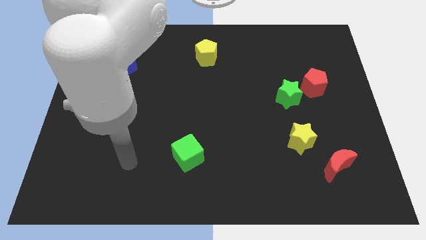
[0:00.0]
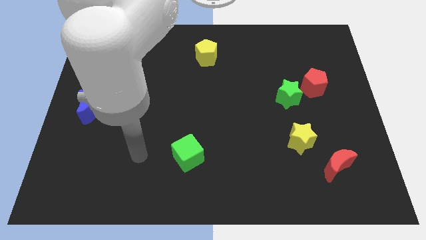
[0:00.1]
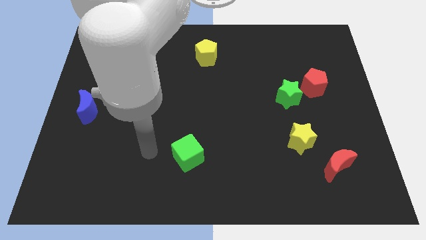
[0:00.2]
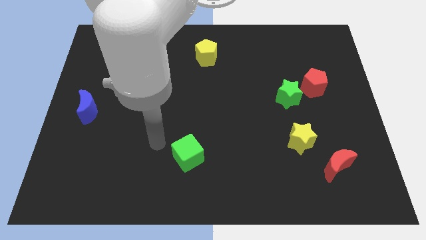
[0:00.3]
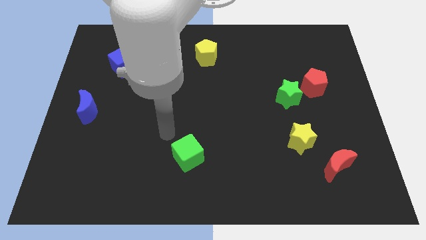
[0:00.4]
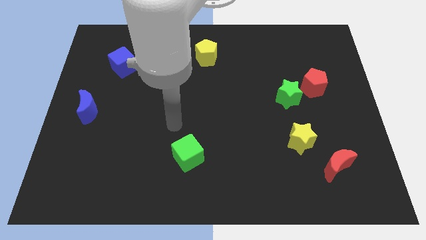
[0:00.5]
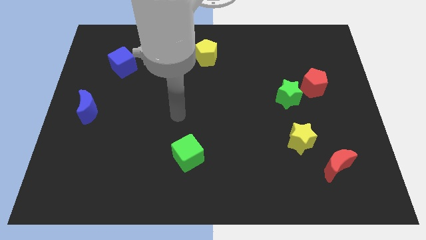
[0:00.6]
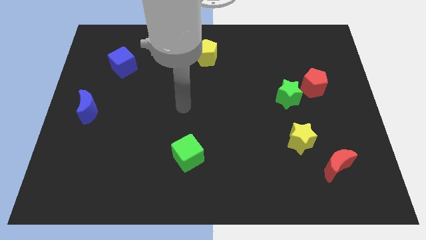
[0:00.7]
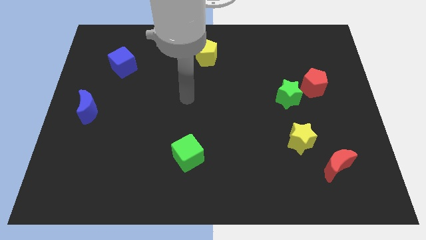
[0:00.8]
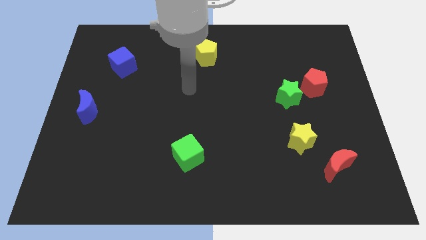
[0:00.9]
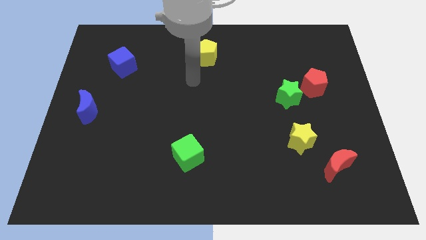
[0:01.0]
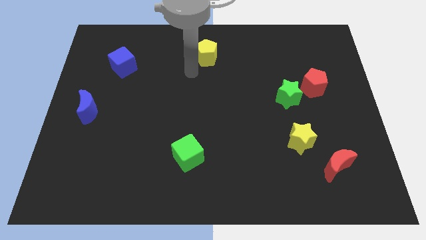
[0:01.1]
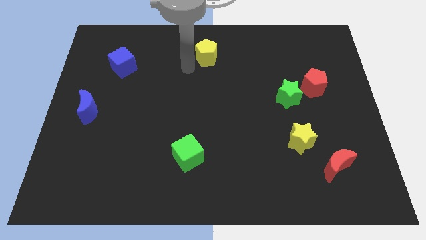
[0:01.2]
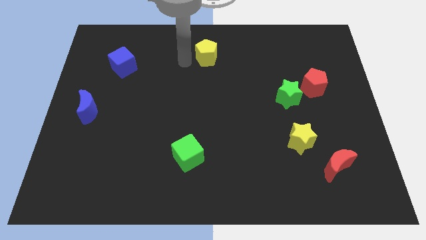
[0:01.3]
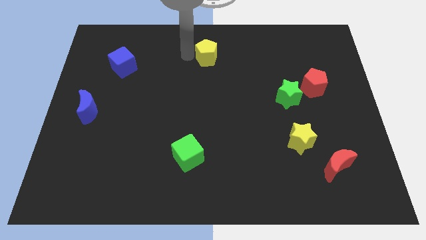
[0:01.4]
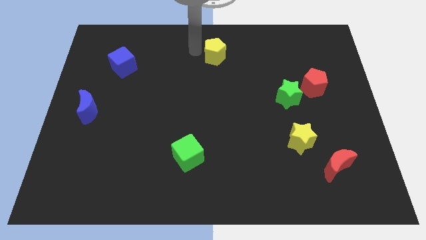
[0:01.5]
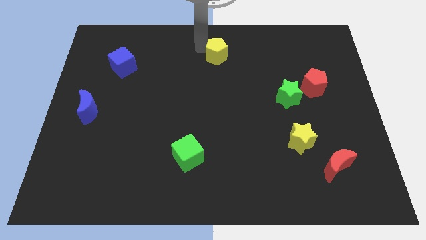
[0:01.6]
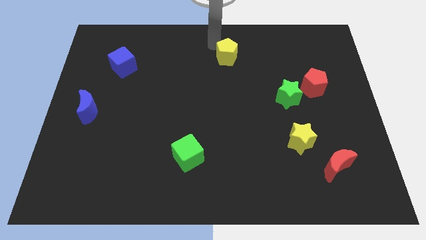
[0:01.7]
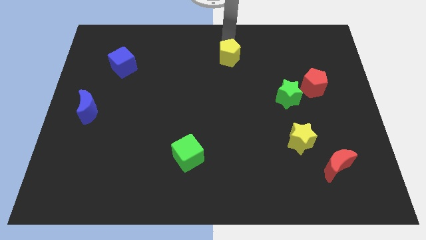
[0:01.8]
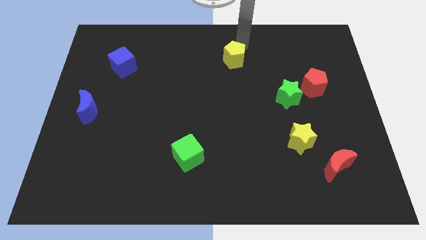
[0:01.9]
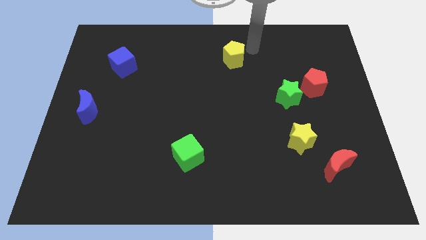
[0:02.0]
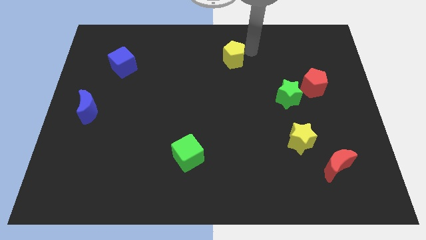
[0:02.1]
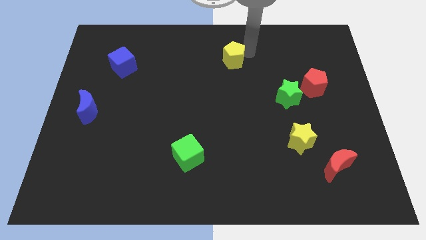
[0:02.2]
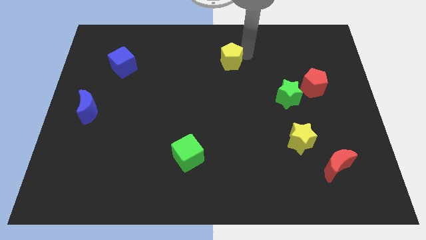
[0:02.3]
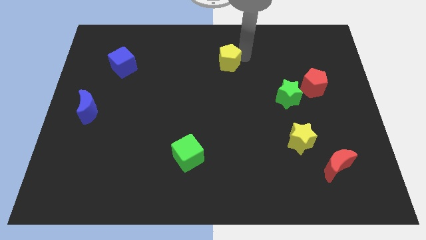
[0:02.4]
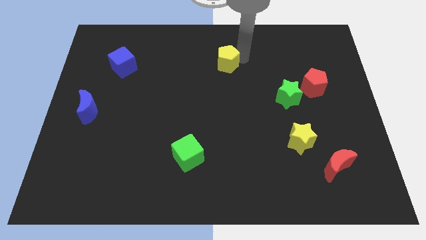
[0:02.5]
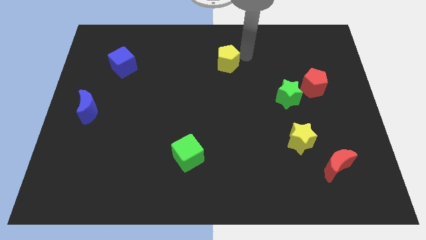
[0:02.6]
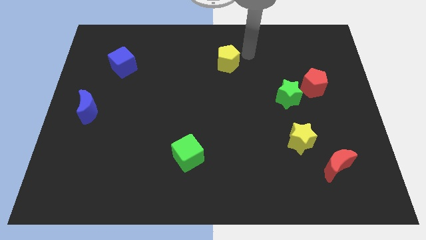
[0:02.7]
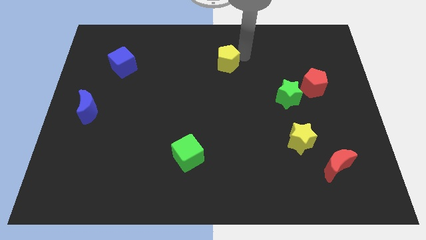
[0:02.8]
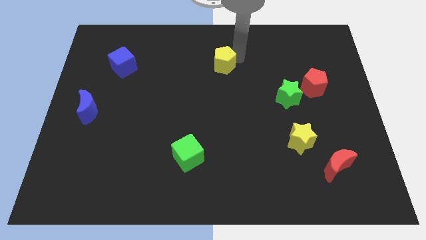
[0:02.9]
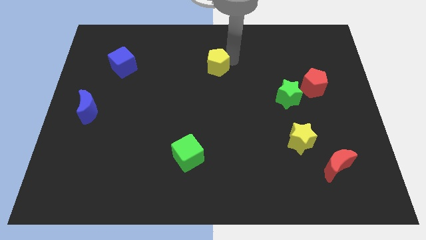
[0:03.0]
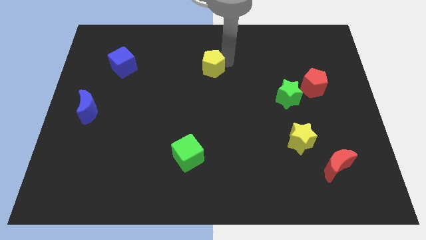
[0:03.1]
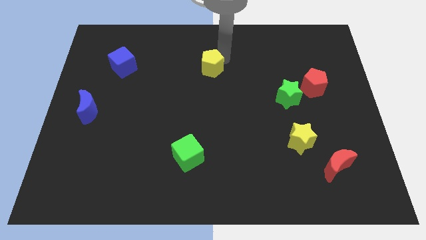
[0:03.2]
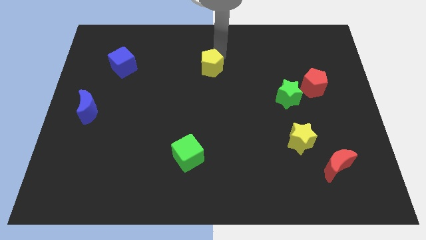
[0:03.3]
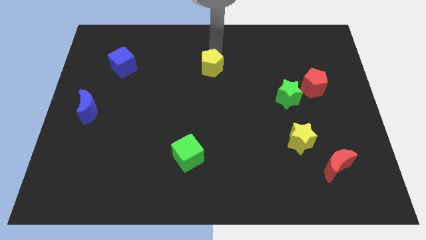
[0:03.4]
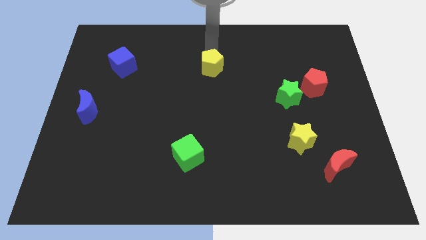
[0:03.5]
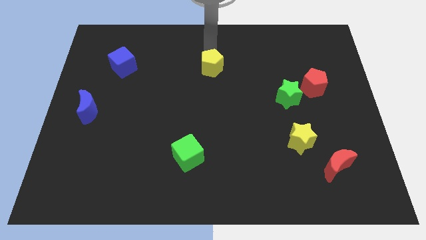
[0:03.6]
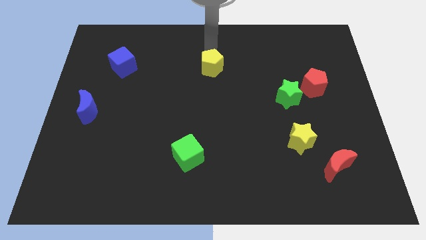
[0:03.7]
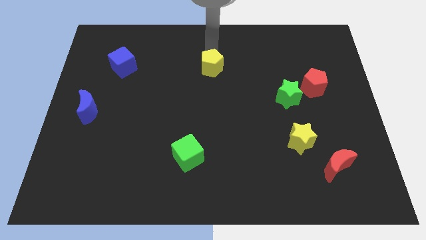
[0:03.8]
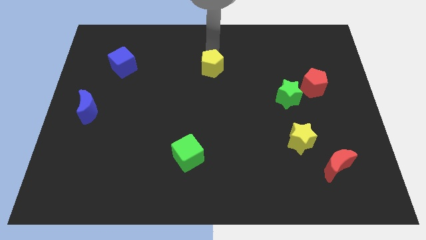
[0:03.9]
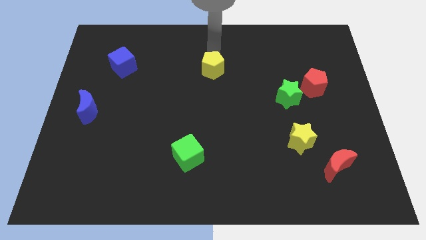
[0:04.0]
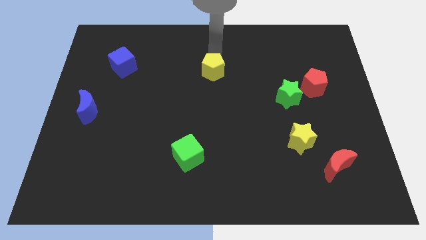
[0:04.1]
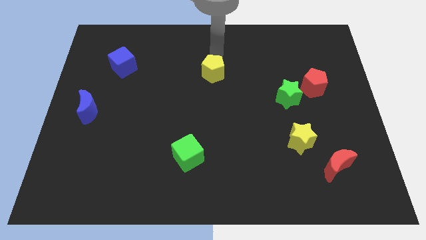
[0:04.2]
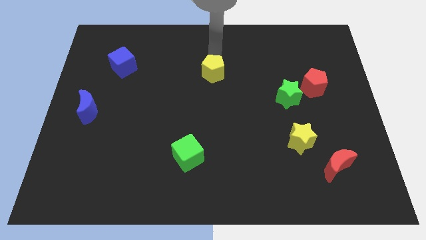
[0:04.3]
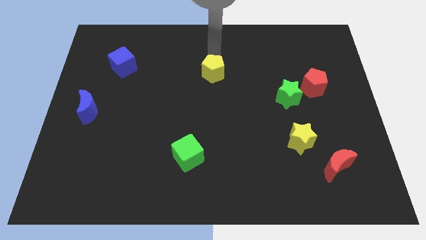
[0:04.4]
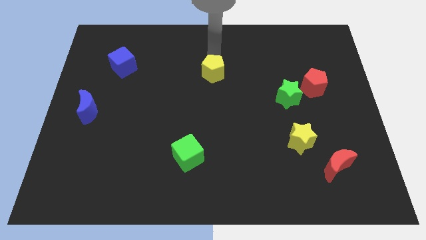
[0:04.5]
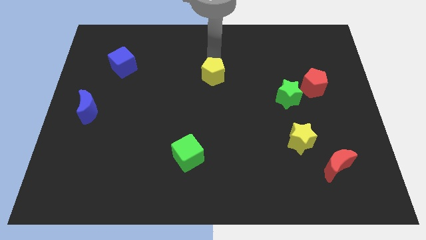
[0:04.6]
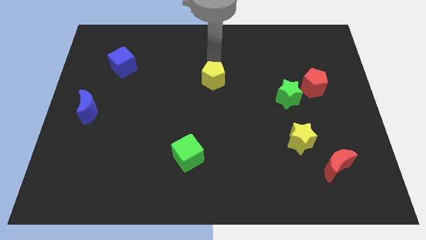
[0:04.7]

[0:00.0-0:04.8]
push the yellow pentagon down slightly

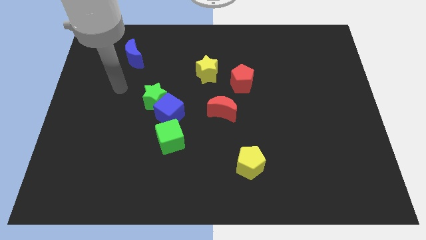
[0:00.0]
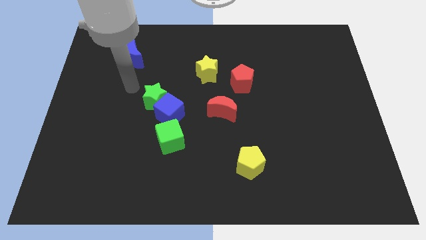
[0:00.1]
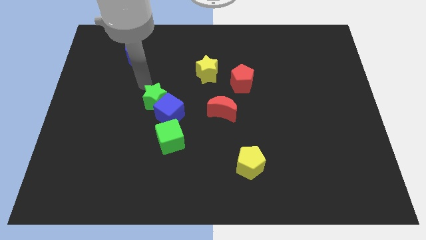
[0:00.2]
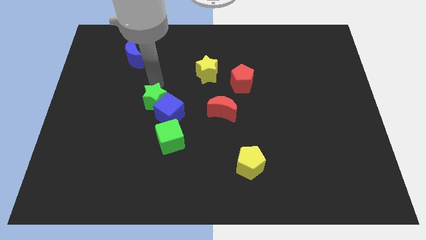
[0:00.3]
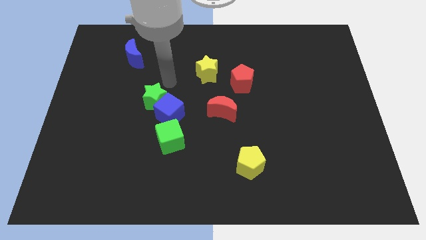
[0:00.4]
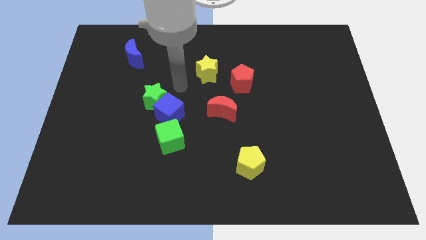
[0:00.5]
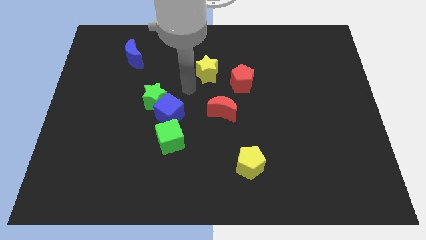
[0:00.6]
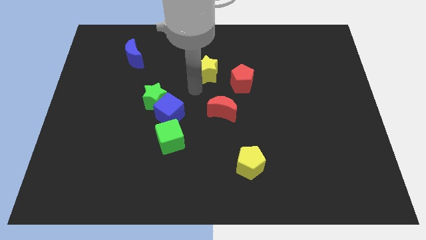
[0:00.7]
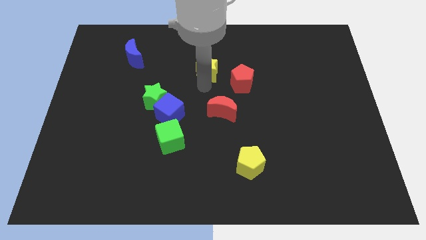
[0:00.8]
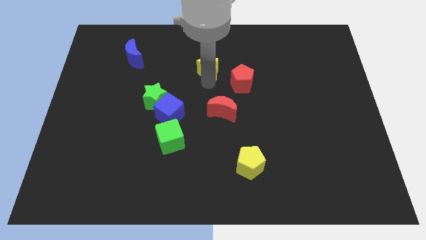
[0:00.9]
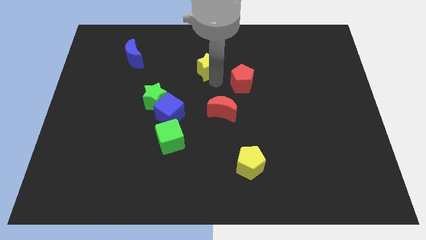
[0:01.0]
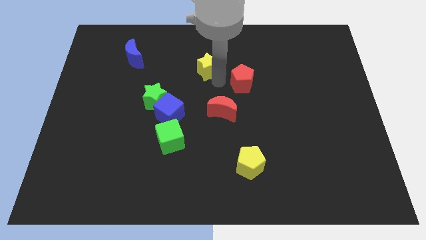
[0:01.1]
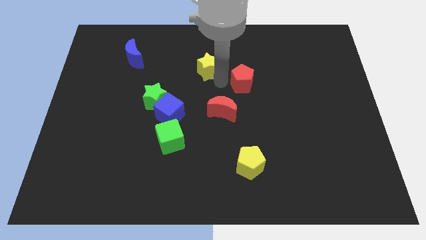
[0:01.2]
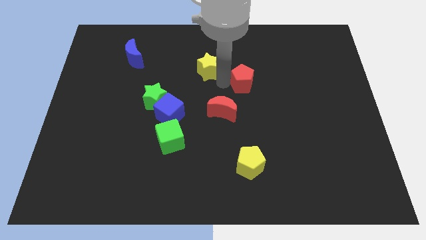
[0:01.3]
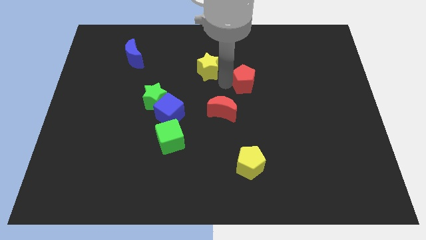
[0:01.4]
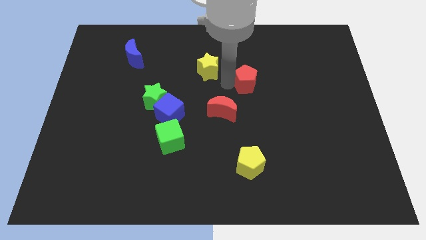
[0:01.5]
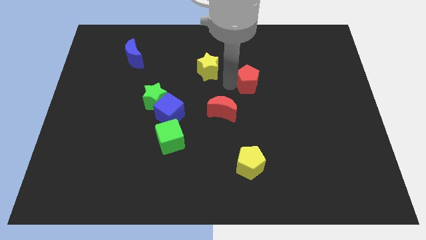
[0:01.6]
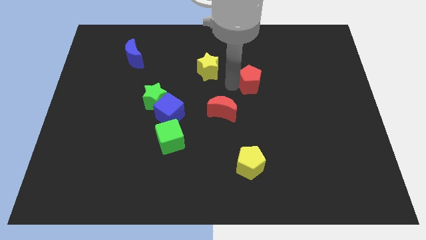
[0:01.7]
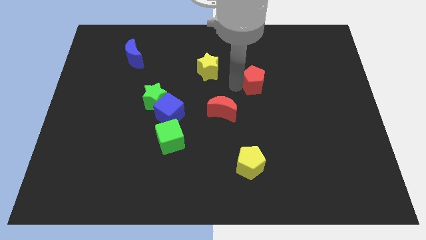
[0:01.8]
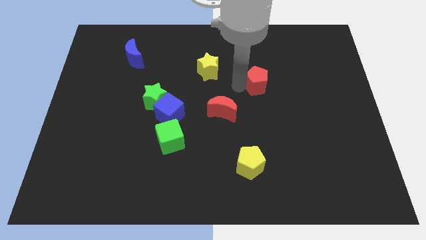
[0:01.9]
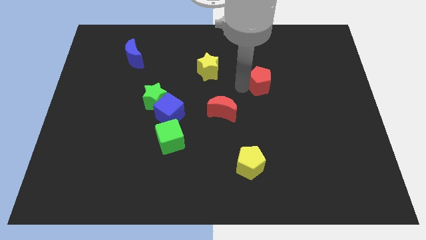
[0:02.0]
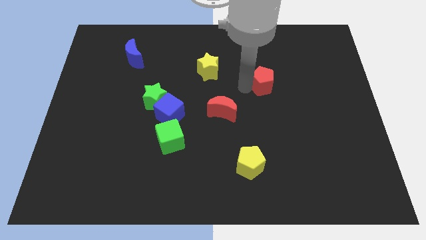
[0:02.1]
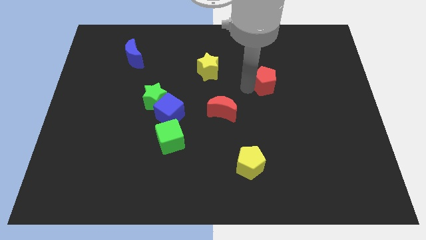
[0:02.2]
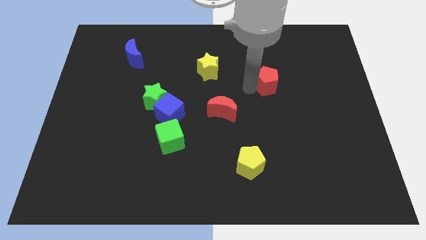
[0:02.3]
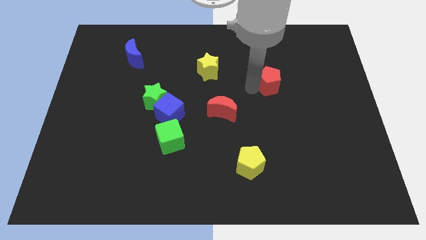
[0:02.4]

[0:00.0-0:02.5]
push the red pentagon right somewhat

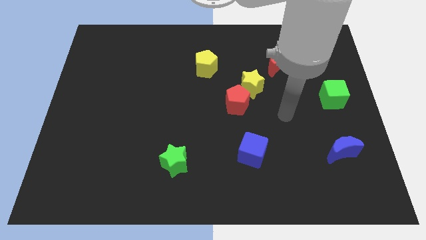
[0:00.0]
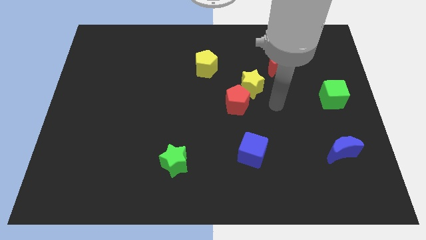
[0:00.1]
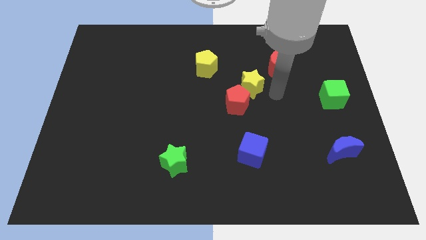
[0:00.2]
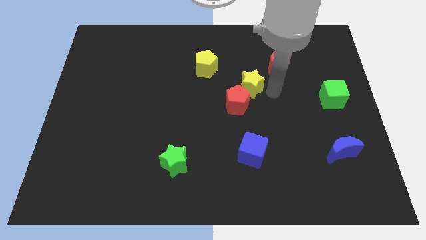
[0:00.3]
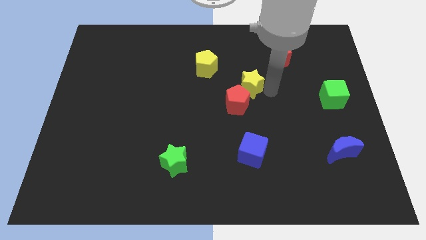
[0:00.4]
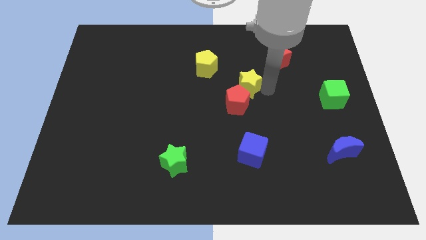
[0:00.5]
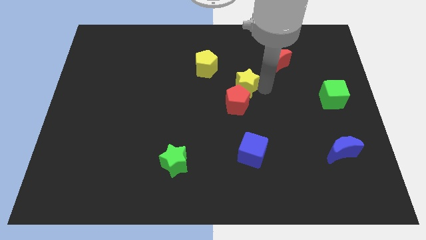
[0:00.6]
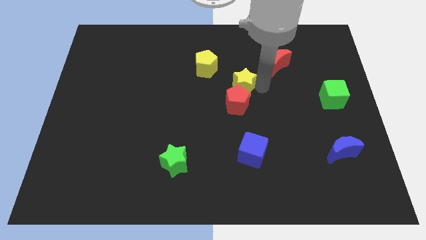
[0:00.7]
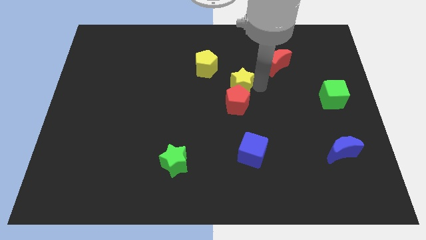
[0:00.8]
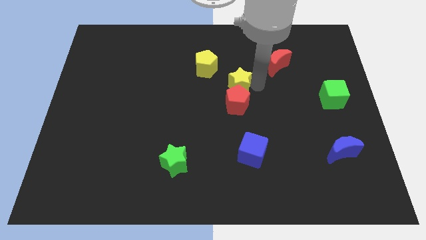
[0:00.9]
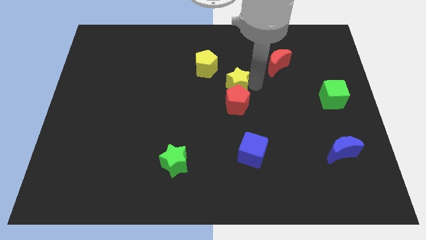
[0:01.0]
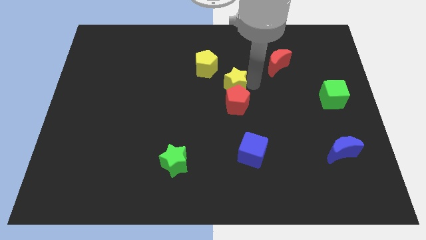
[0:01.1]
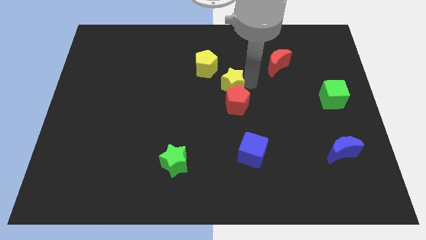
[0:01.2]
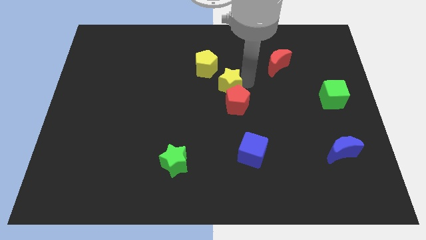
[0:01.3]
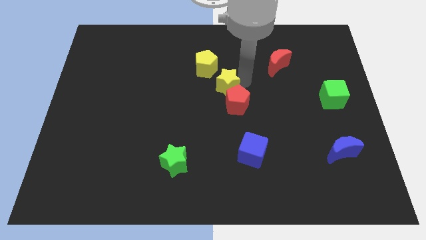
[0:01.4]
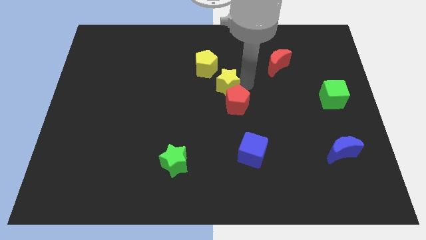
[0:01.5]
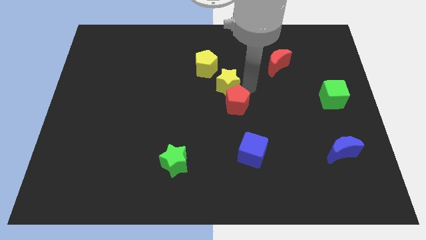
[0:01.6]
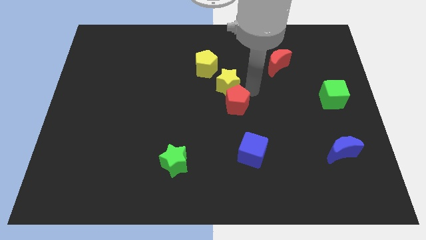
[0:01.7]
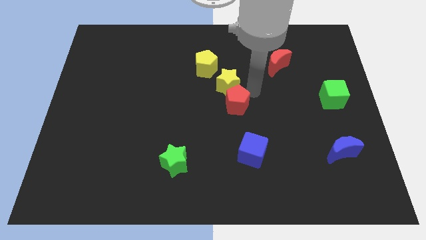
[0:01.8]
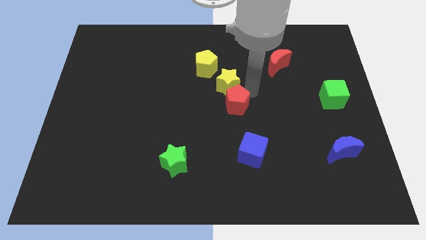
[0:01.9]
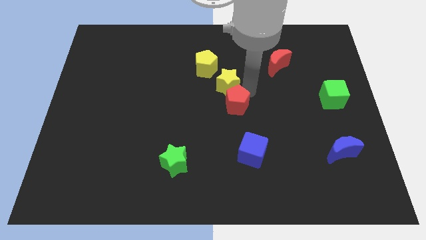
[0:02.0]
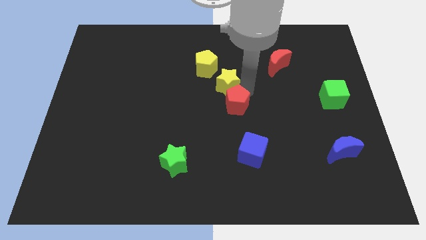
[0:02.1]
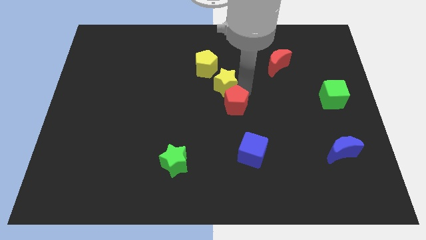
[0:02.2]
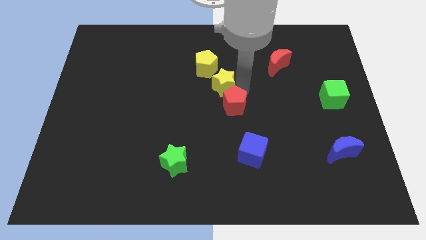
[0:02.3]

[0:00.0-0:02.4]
push the yellow star to the left a little bit
